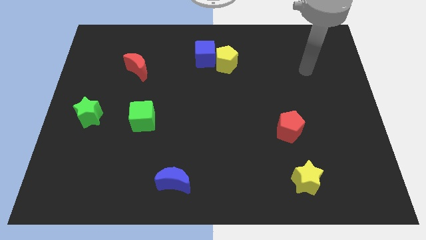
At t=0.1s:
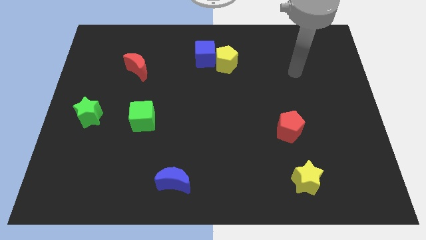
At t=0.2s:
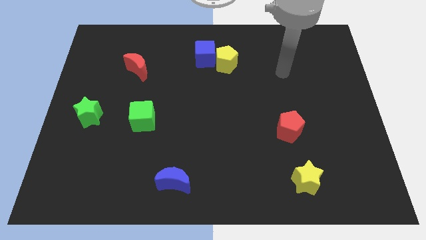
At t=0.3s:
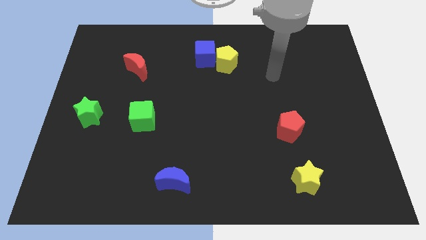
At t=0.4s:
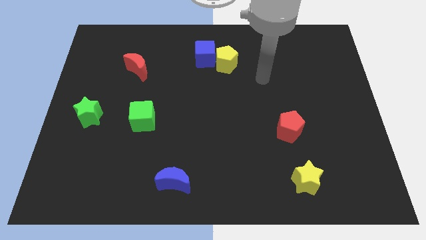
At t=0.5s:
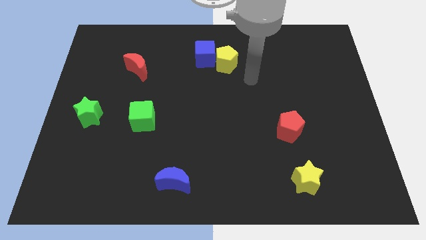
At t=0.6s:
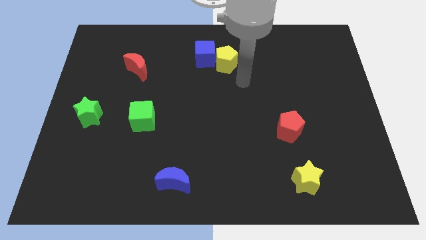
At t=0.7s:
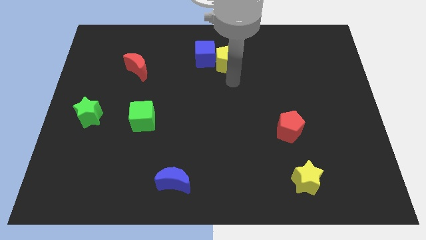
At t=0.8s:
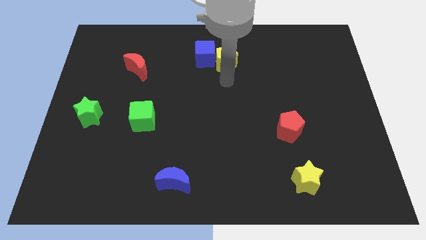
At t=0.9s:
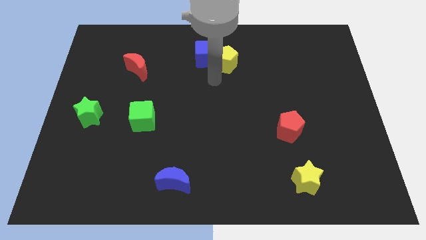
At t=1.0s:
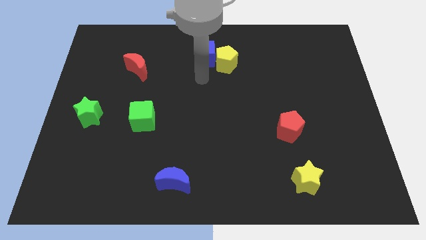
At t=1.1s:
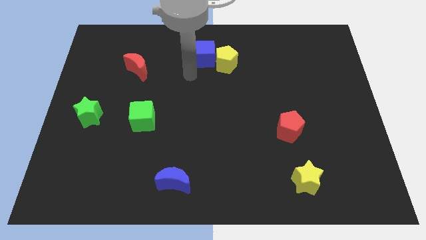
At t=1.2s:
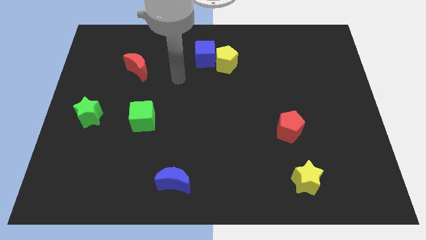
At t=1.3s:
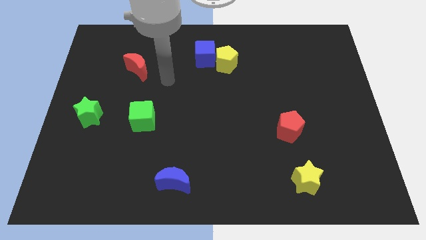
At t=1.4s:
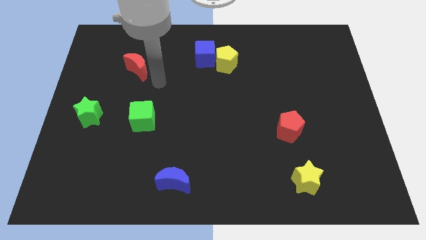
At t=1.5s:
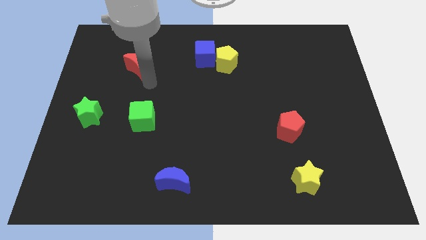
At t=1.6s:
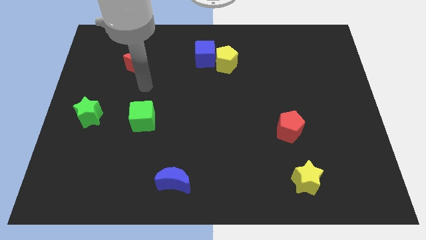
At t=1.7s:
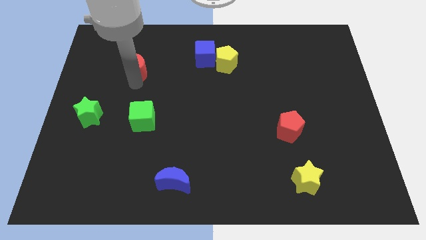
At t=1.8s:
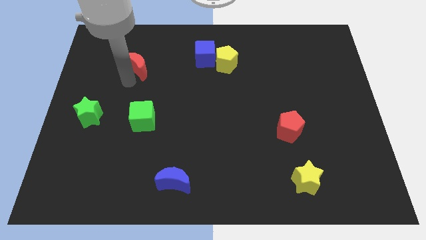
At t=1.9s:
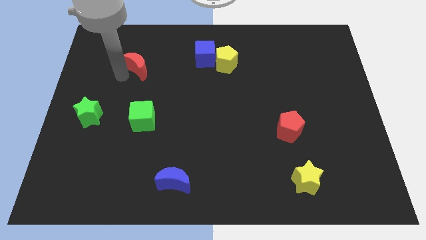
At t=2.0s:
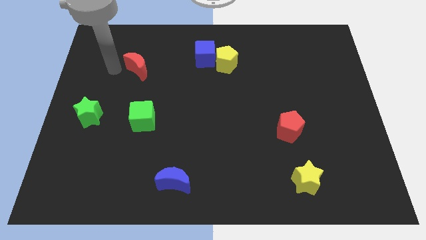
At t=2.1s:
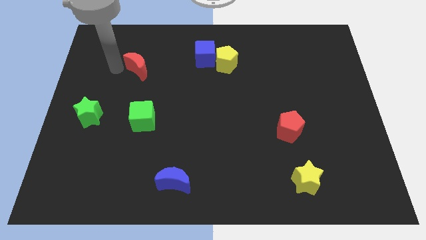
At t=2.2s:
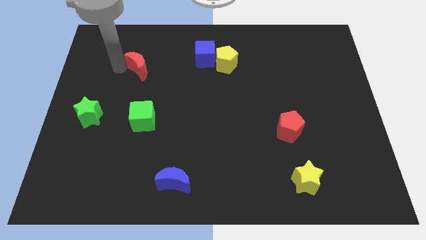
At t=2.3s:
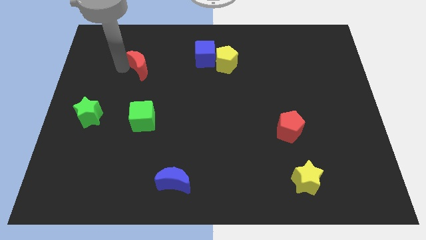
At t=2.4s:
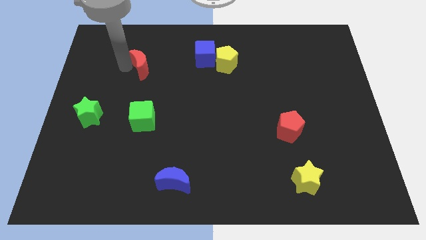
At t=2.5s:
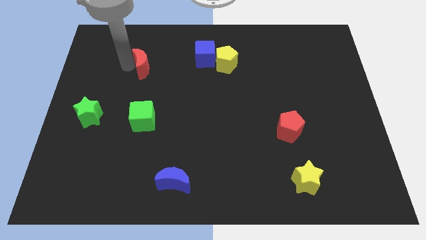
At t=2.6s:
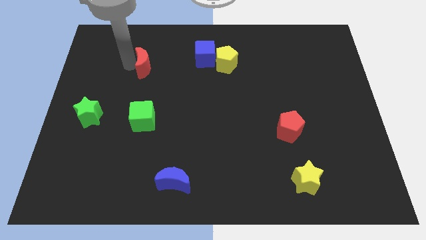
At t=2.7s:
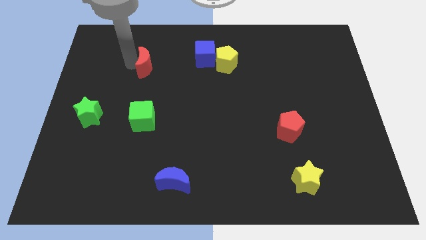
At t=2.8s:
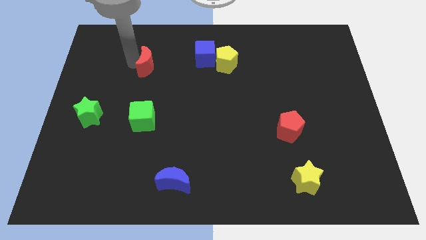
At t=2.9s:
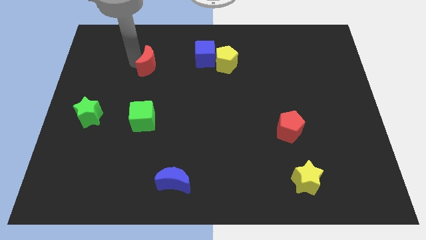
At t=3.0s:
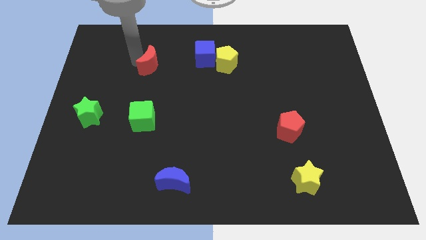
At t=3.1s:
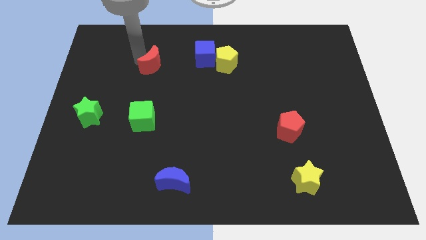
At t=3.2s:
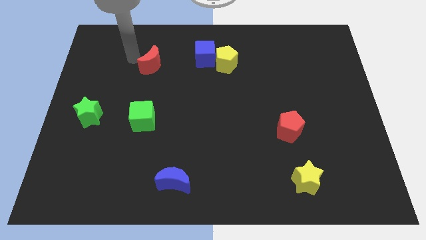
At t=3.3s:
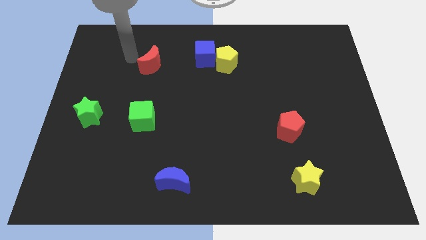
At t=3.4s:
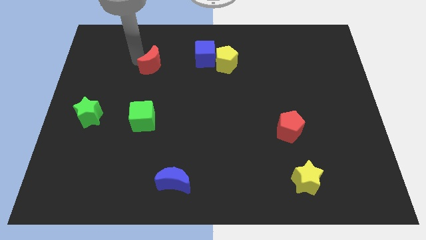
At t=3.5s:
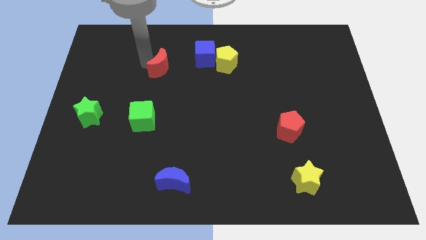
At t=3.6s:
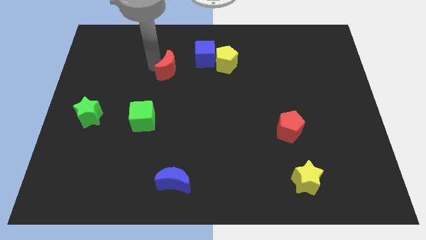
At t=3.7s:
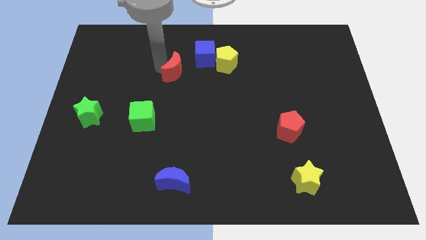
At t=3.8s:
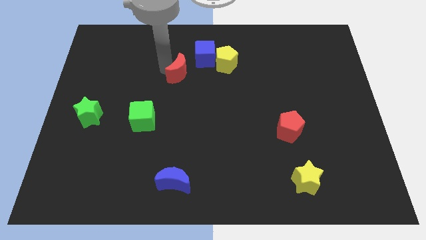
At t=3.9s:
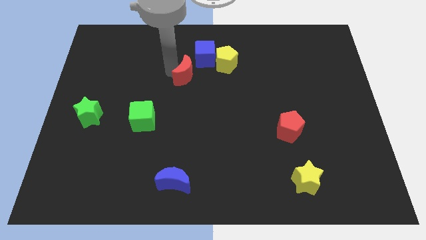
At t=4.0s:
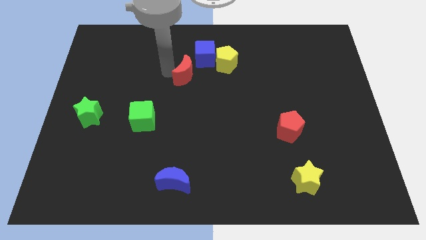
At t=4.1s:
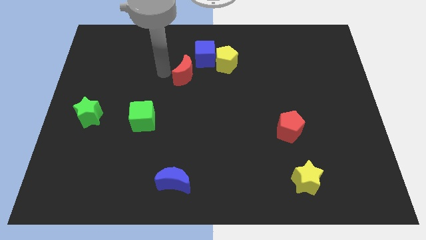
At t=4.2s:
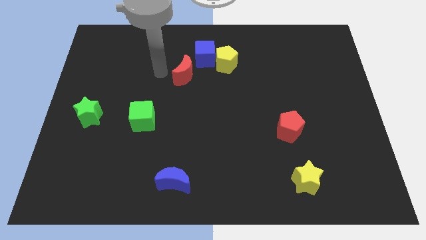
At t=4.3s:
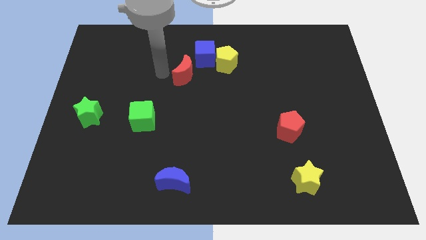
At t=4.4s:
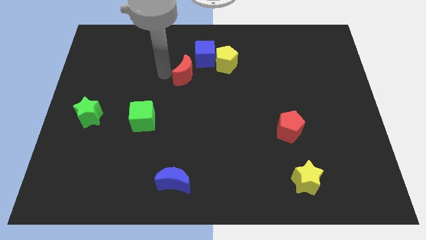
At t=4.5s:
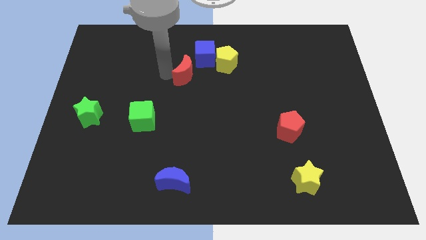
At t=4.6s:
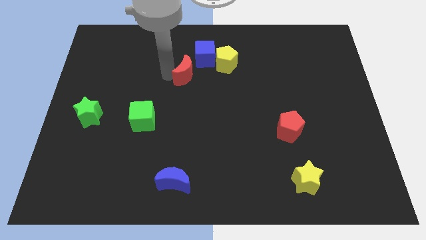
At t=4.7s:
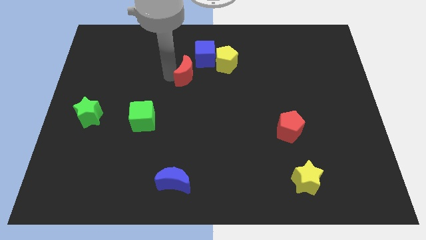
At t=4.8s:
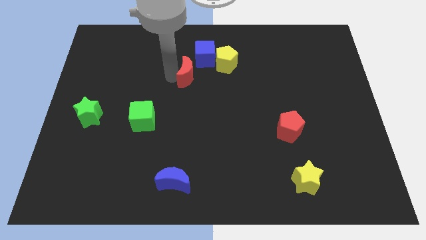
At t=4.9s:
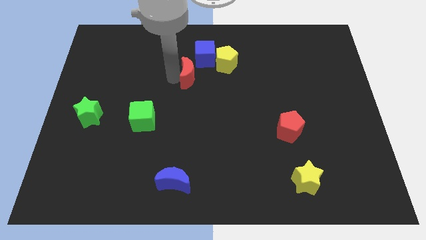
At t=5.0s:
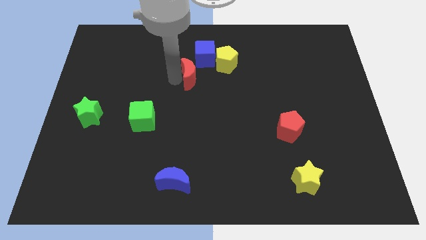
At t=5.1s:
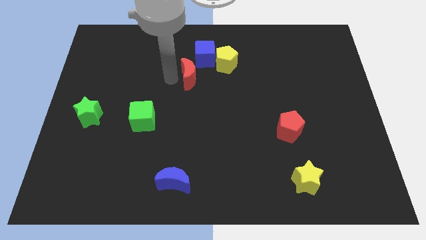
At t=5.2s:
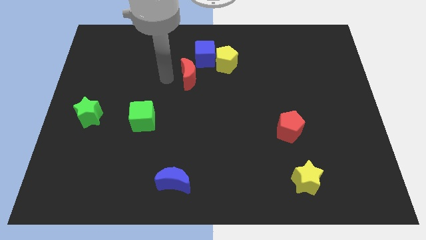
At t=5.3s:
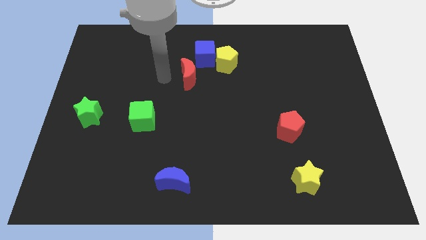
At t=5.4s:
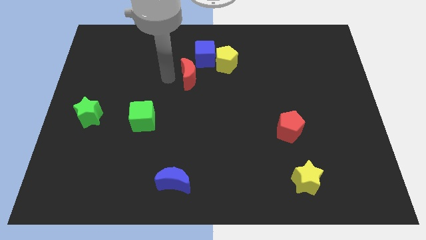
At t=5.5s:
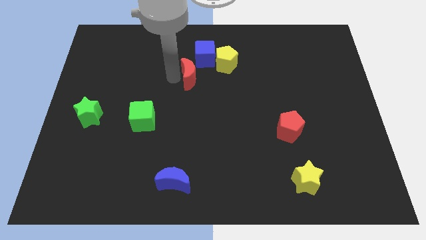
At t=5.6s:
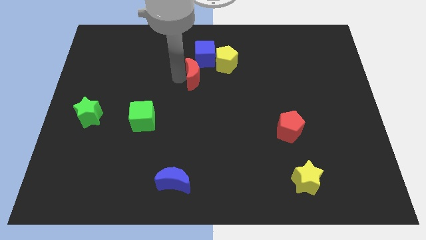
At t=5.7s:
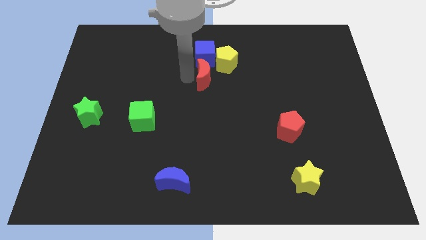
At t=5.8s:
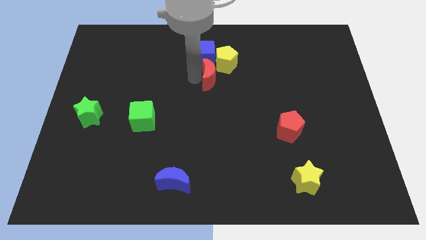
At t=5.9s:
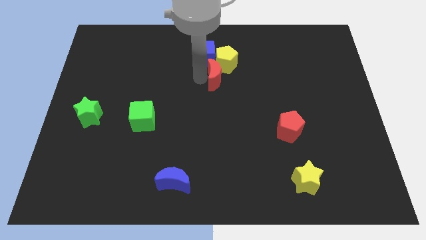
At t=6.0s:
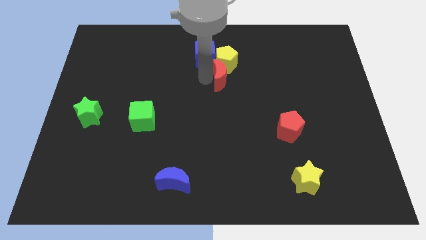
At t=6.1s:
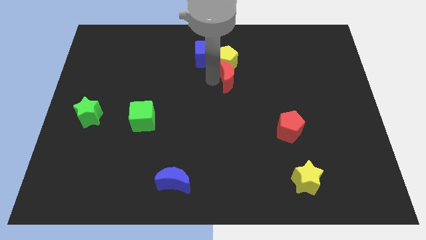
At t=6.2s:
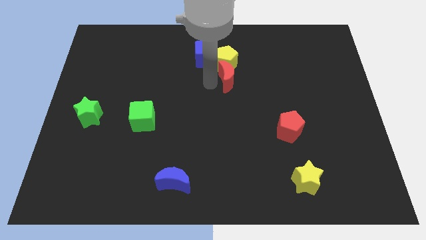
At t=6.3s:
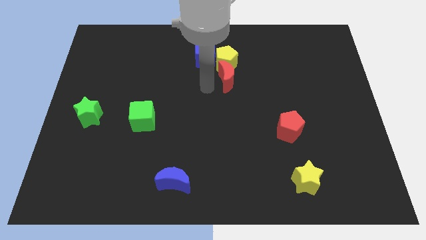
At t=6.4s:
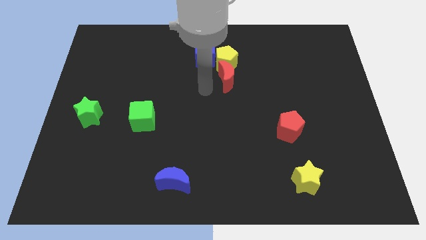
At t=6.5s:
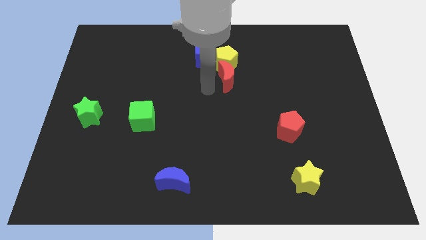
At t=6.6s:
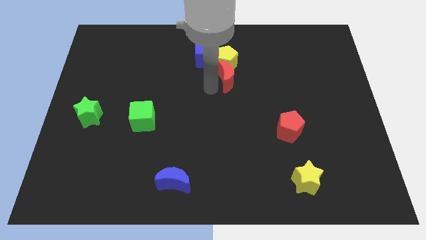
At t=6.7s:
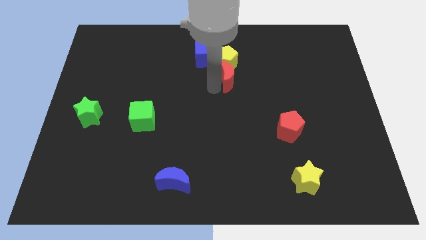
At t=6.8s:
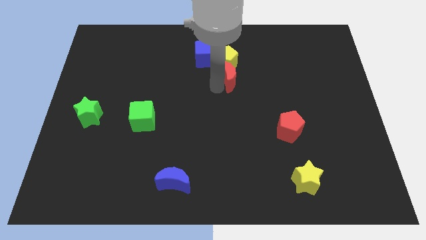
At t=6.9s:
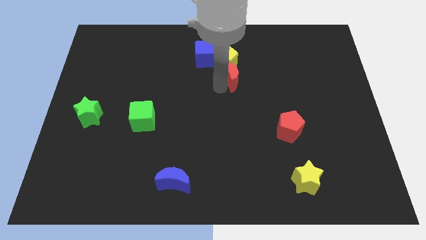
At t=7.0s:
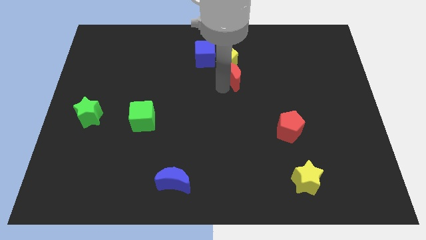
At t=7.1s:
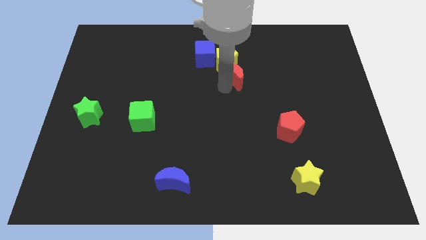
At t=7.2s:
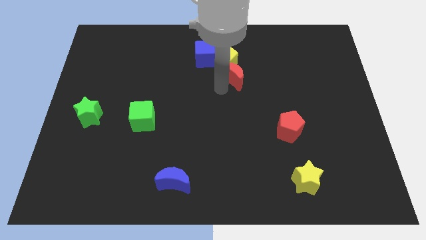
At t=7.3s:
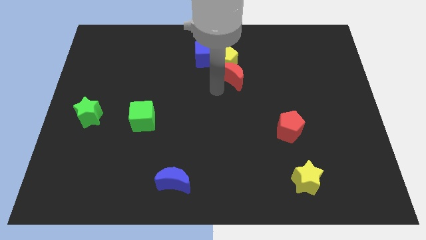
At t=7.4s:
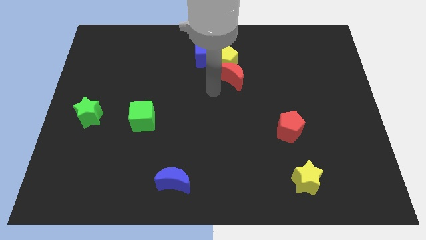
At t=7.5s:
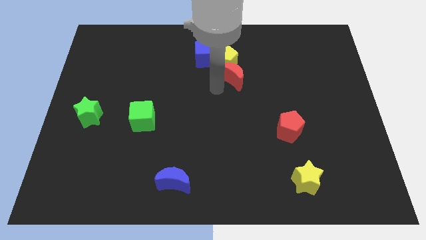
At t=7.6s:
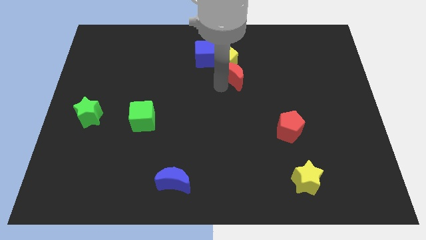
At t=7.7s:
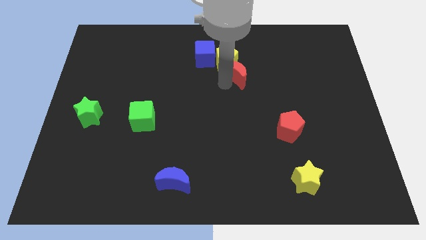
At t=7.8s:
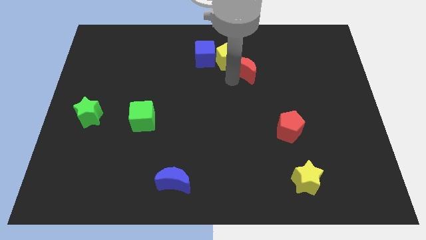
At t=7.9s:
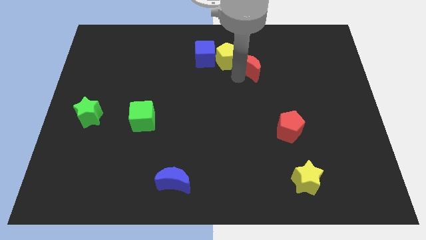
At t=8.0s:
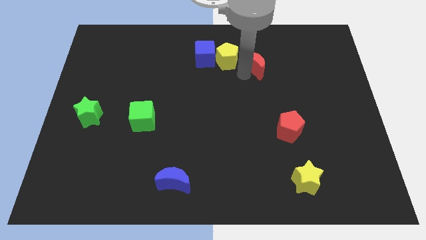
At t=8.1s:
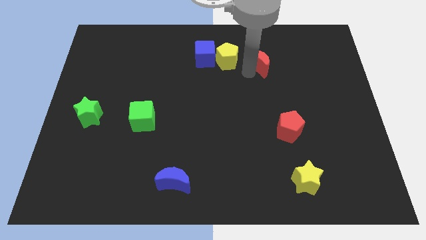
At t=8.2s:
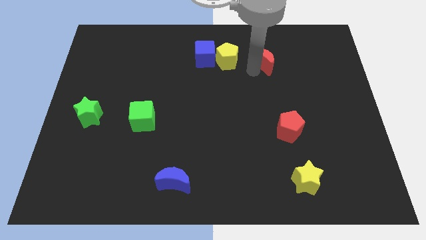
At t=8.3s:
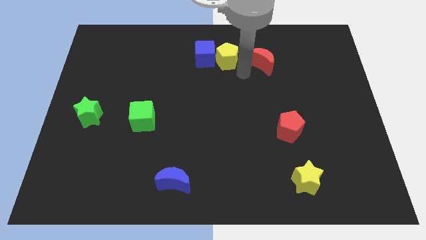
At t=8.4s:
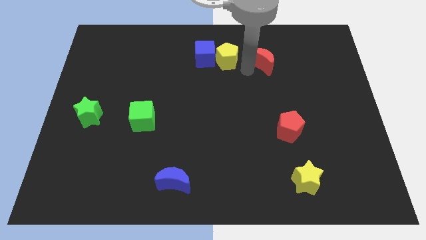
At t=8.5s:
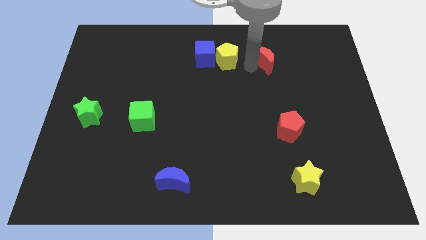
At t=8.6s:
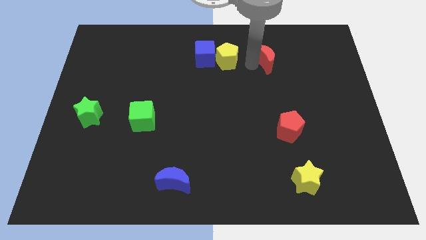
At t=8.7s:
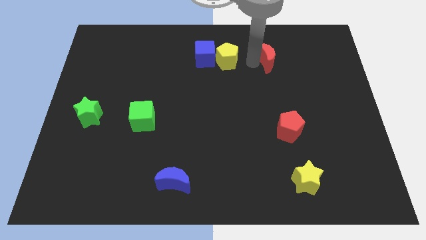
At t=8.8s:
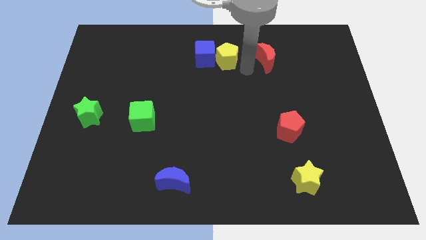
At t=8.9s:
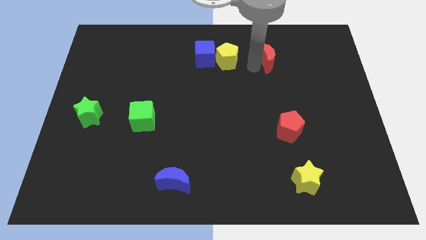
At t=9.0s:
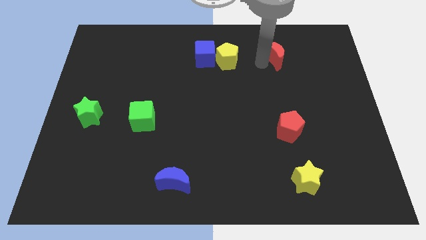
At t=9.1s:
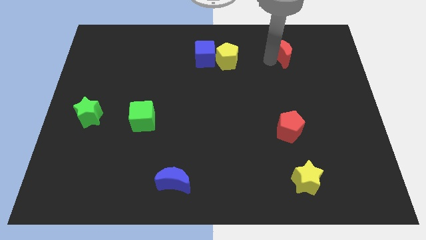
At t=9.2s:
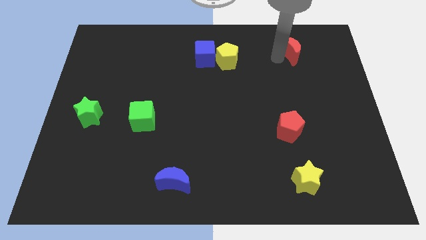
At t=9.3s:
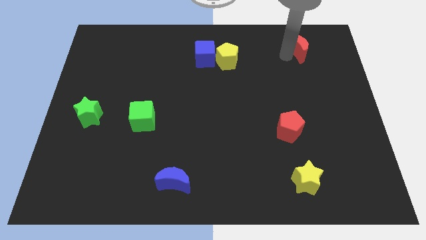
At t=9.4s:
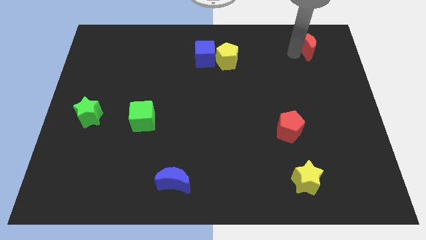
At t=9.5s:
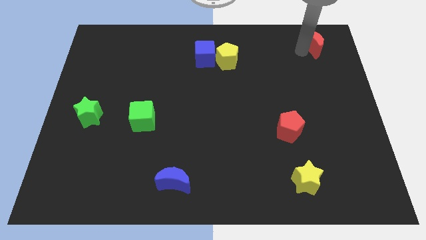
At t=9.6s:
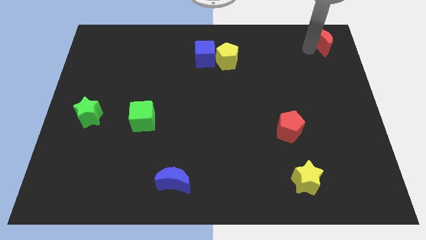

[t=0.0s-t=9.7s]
move the red moon to the top right of the board
